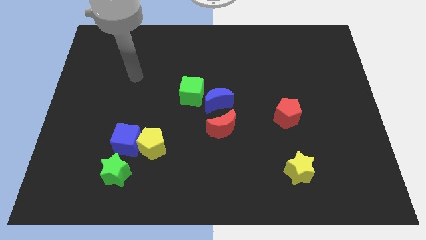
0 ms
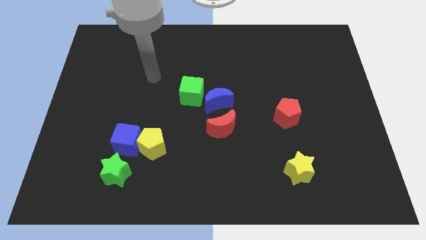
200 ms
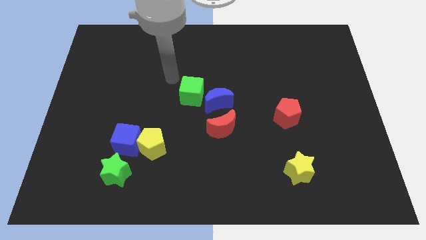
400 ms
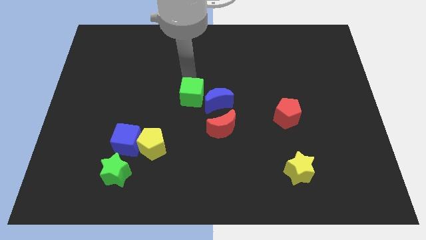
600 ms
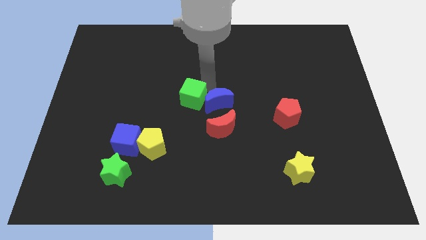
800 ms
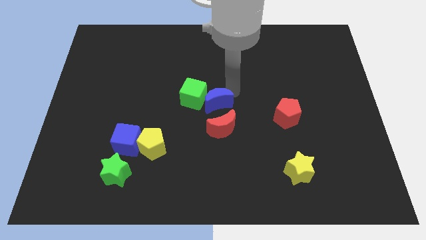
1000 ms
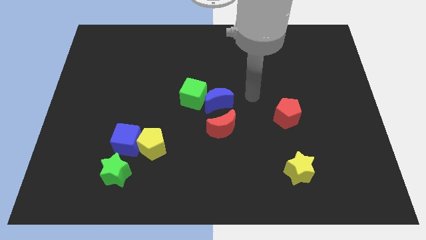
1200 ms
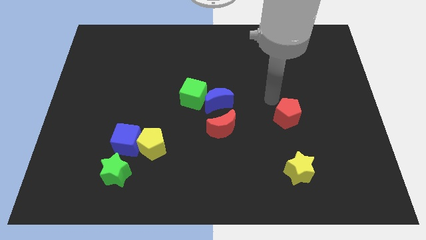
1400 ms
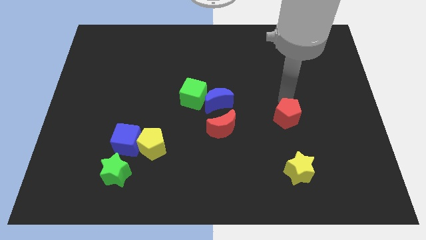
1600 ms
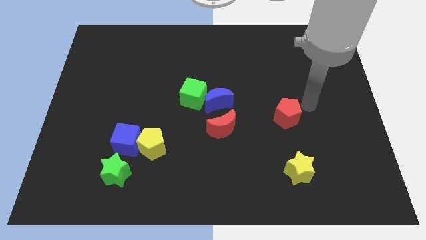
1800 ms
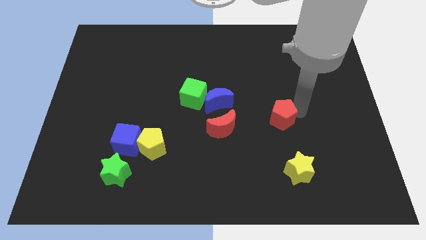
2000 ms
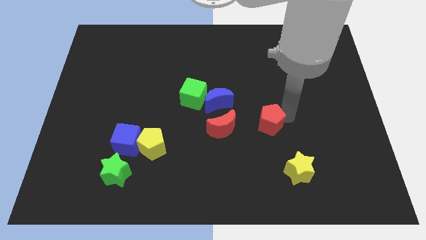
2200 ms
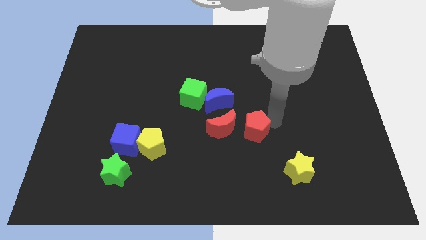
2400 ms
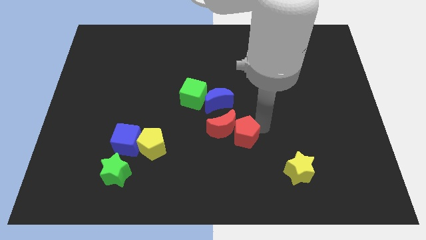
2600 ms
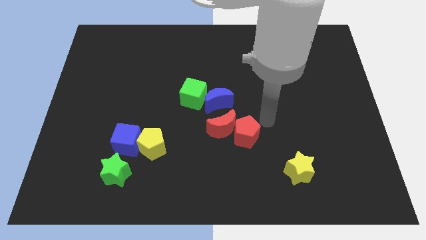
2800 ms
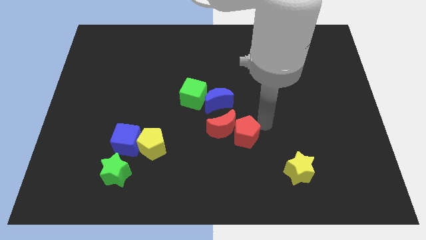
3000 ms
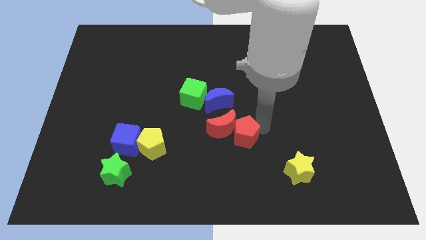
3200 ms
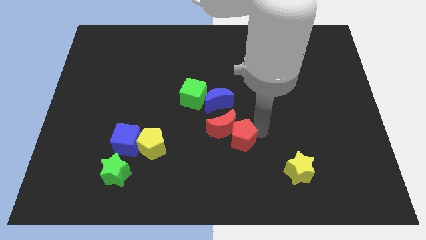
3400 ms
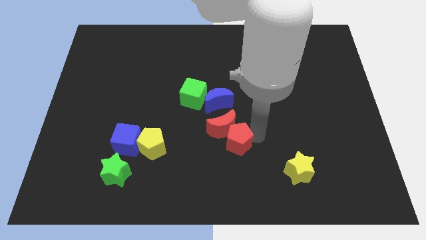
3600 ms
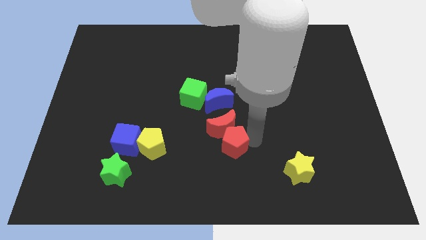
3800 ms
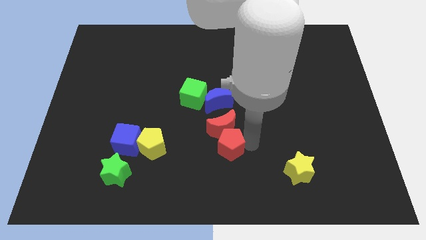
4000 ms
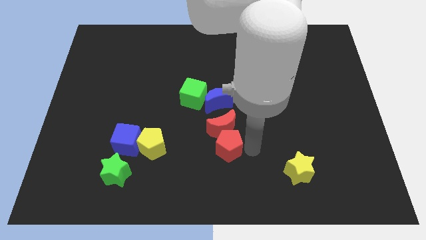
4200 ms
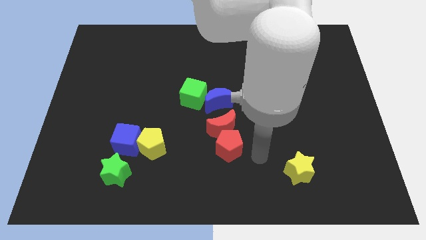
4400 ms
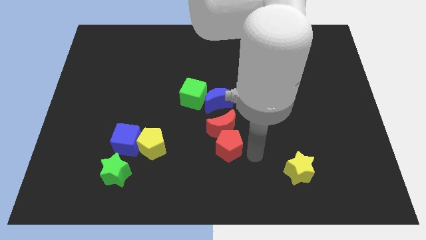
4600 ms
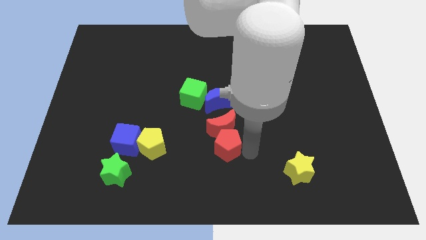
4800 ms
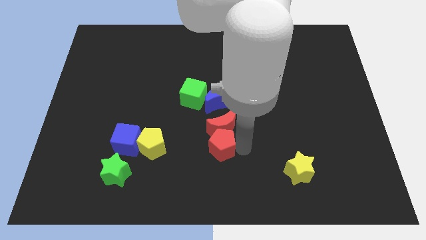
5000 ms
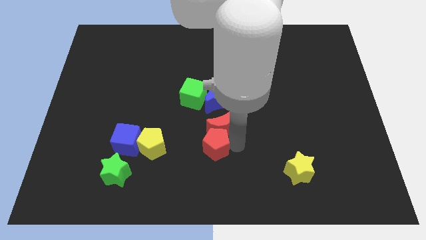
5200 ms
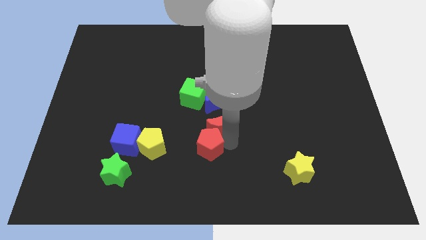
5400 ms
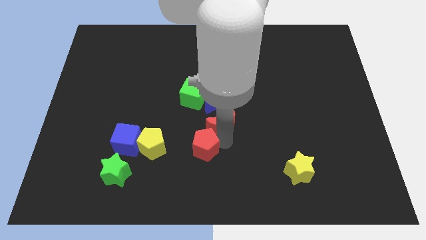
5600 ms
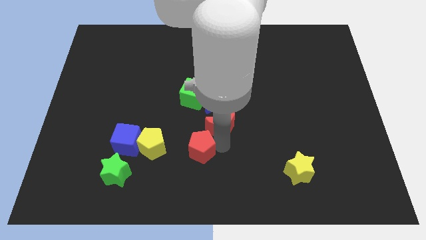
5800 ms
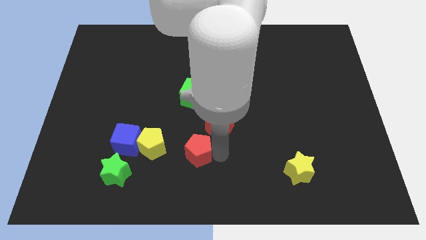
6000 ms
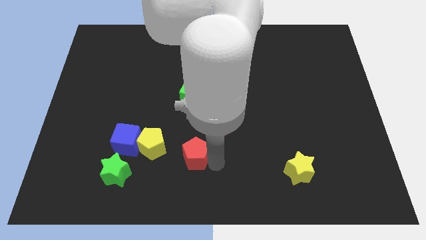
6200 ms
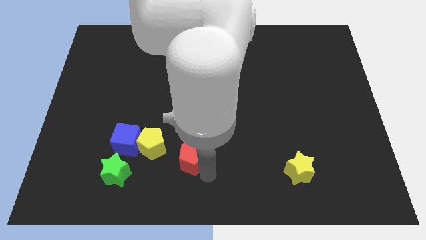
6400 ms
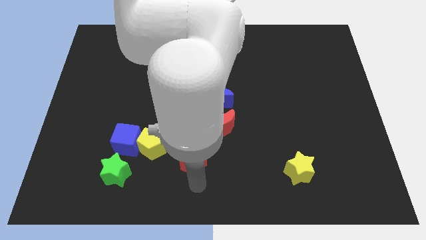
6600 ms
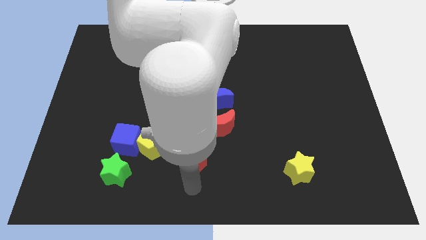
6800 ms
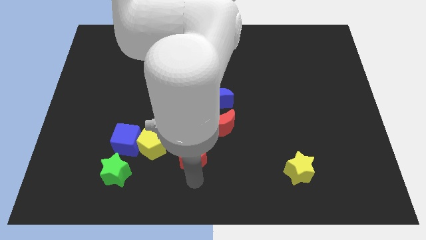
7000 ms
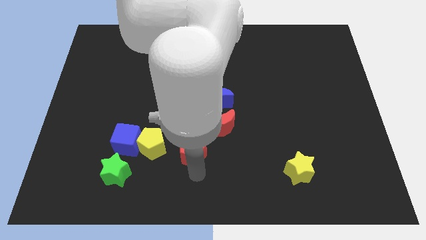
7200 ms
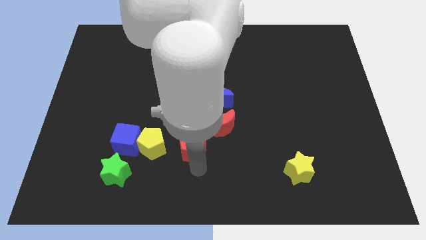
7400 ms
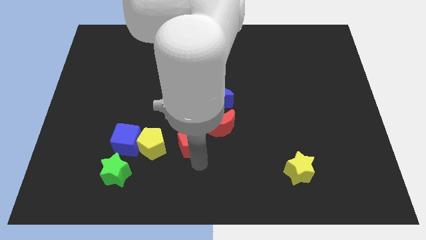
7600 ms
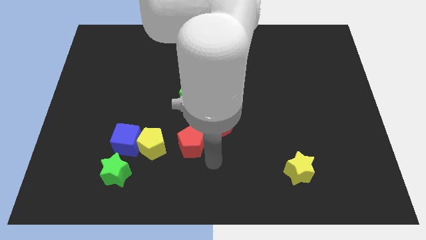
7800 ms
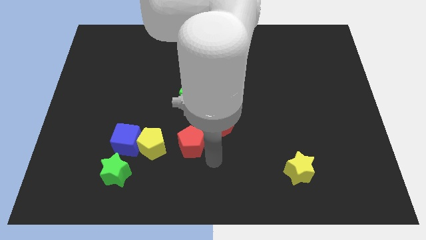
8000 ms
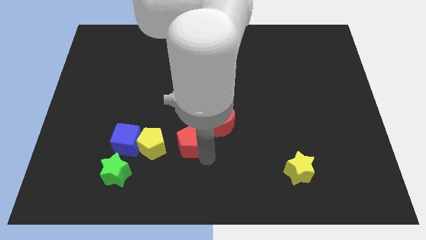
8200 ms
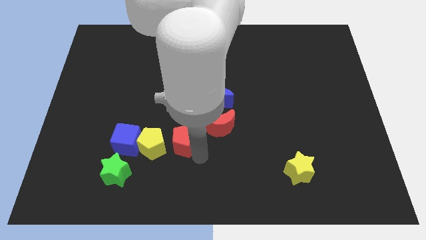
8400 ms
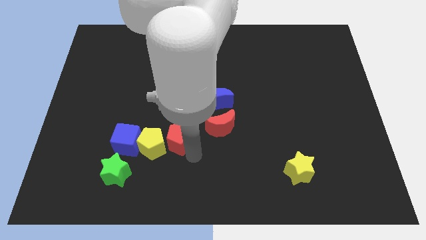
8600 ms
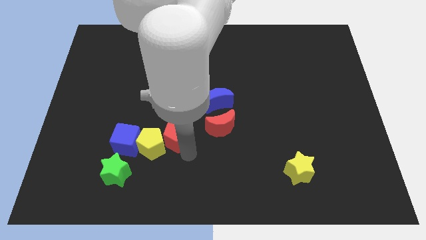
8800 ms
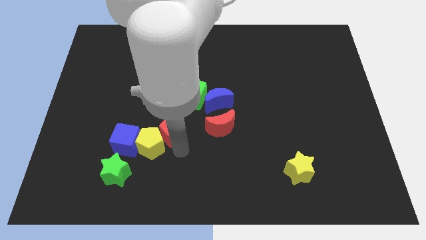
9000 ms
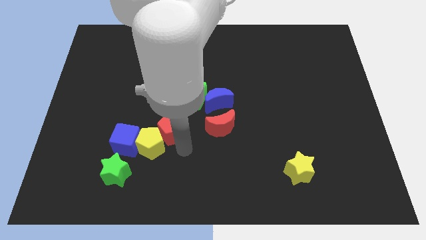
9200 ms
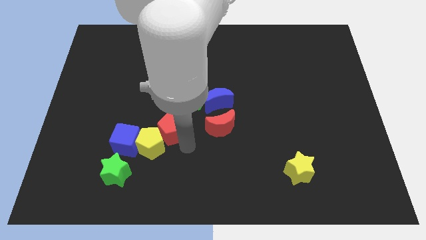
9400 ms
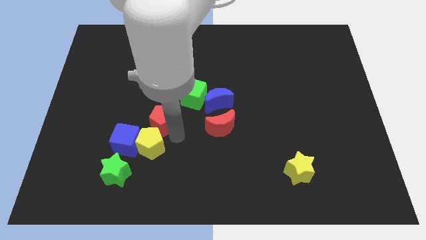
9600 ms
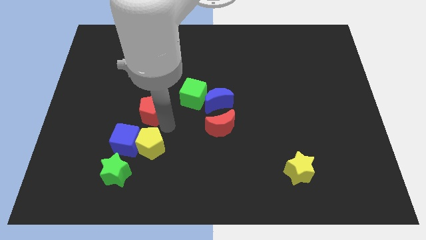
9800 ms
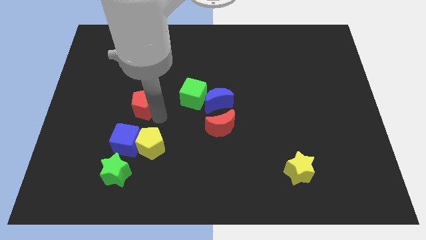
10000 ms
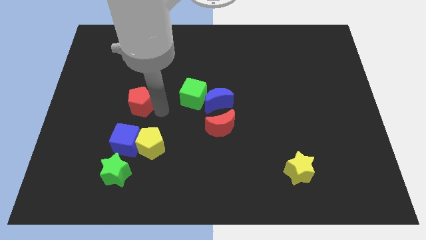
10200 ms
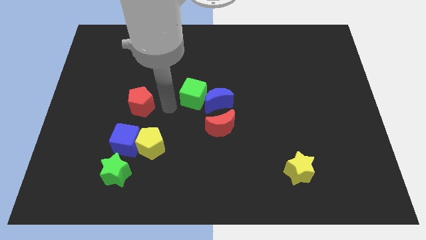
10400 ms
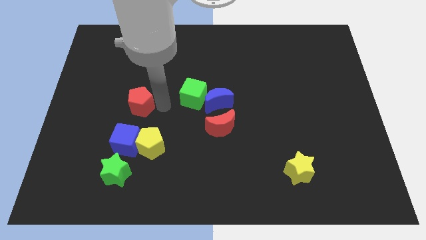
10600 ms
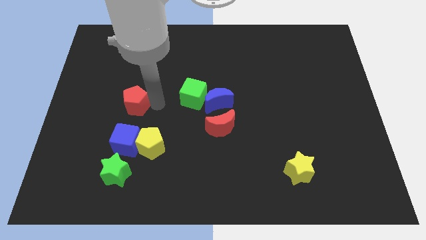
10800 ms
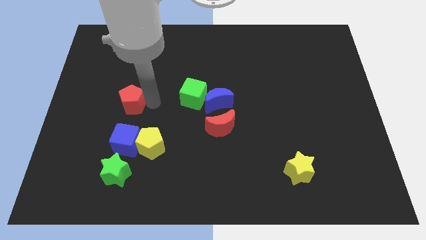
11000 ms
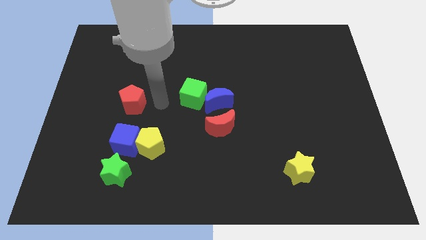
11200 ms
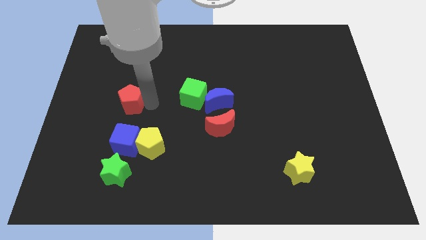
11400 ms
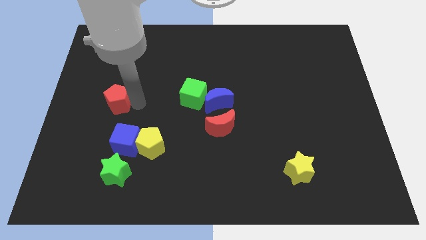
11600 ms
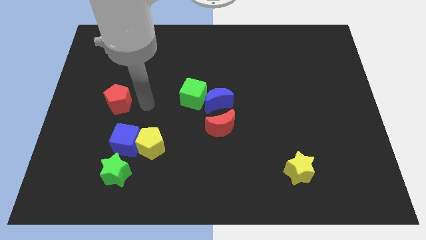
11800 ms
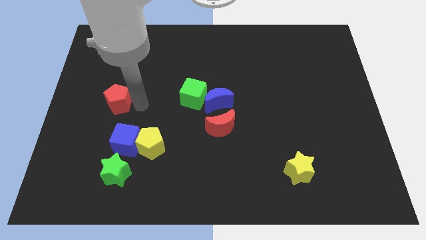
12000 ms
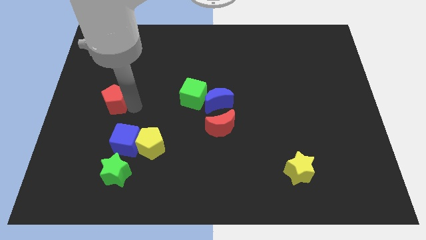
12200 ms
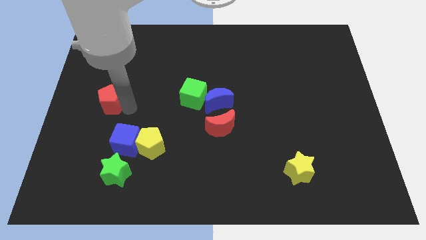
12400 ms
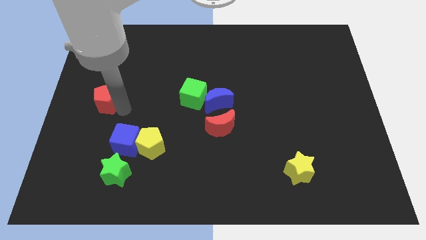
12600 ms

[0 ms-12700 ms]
move the red pentagon to the left side
